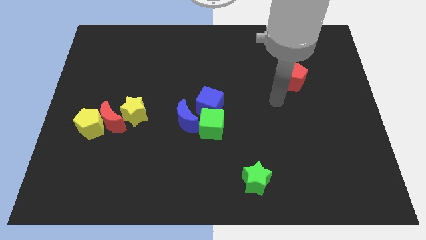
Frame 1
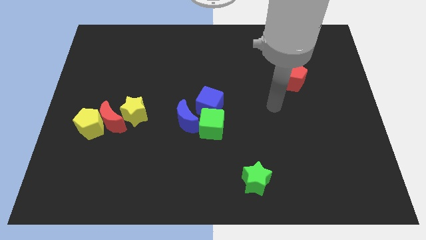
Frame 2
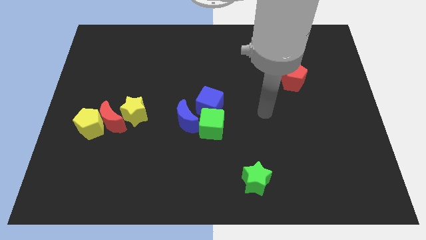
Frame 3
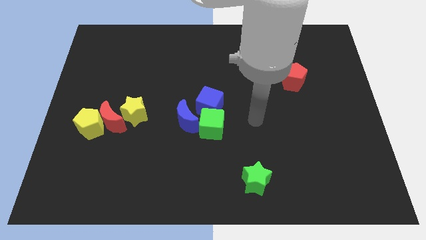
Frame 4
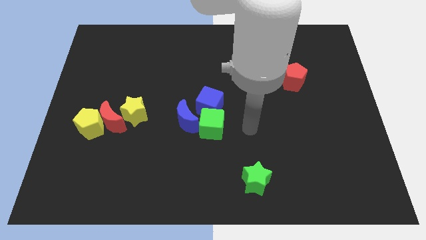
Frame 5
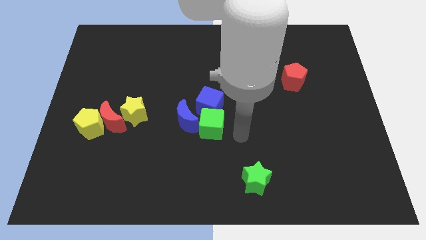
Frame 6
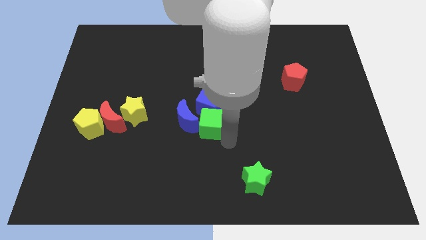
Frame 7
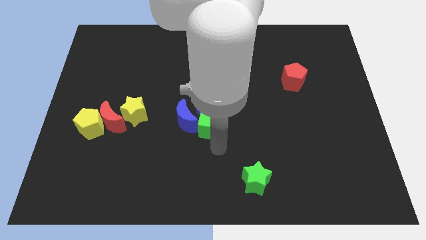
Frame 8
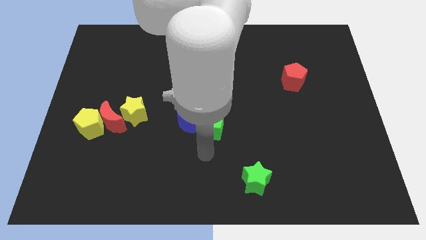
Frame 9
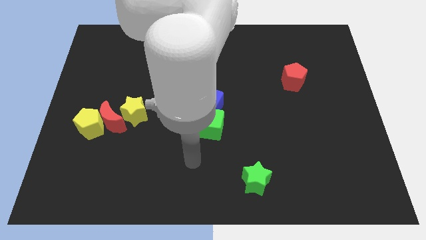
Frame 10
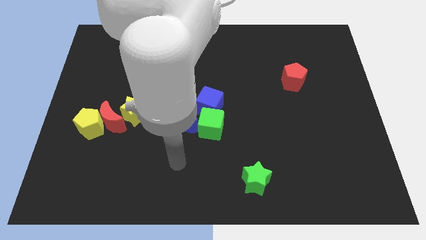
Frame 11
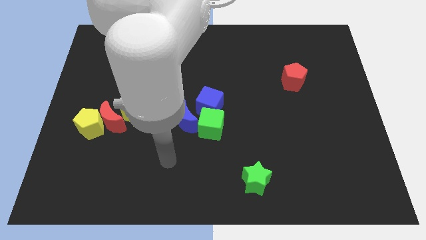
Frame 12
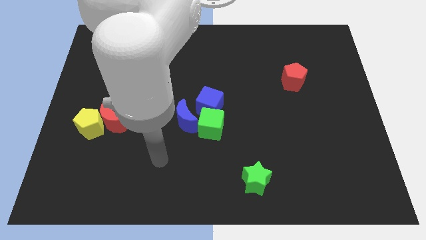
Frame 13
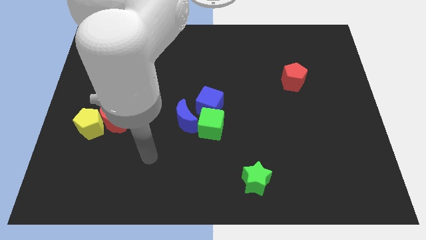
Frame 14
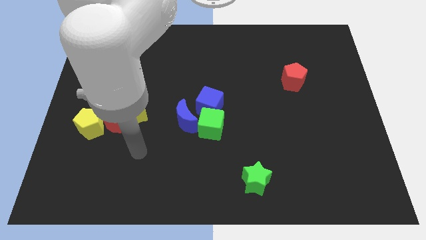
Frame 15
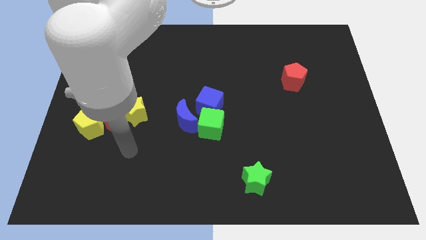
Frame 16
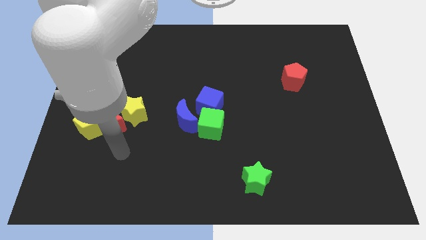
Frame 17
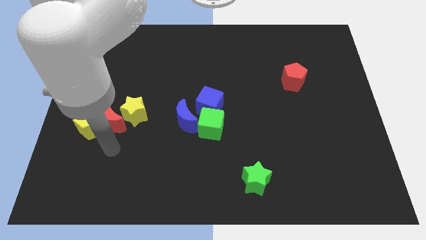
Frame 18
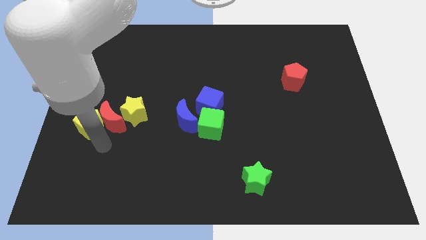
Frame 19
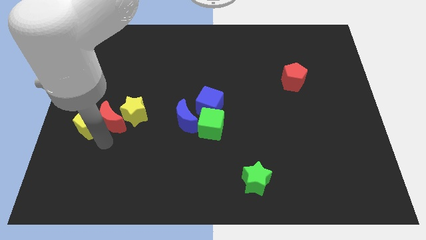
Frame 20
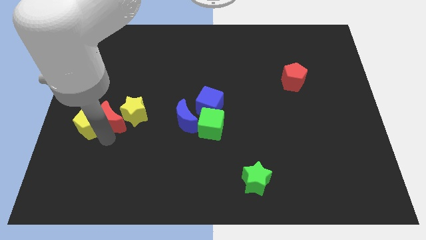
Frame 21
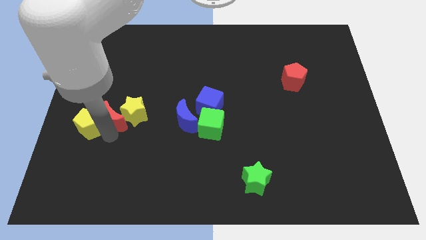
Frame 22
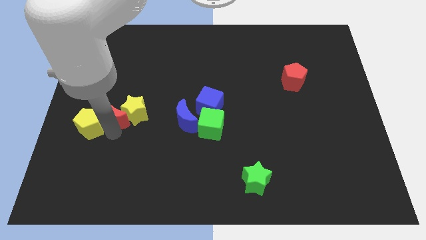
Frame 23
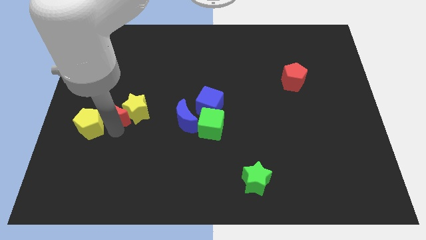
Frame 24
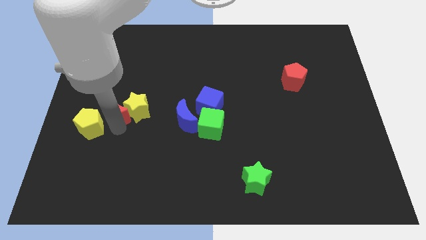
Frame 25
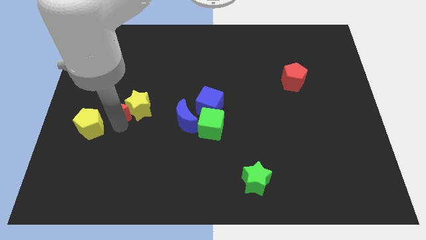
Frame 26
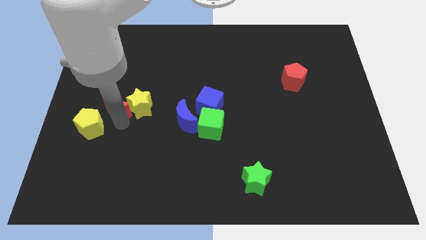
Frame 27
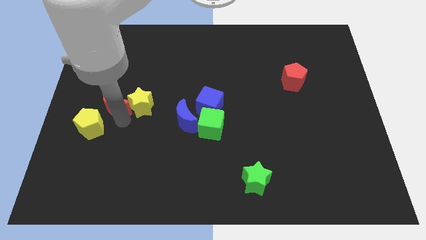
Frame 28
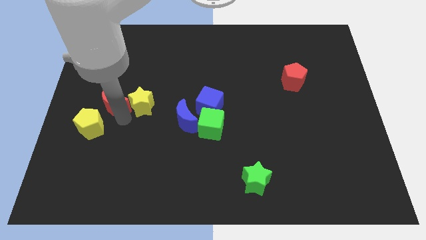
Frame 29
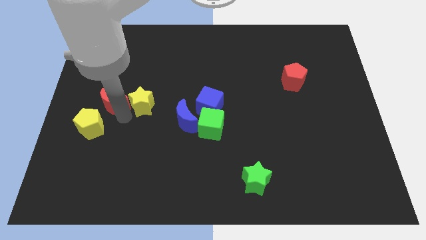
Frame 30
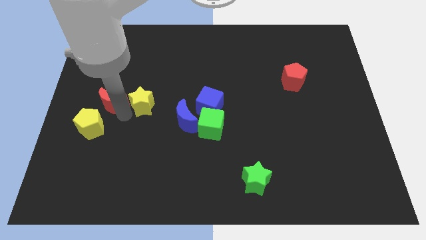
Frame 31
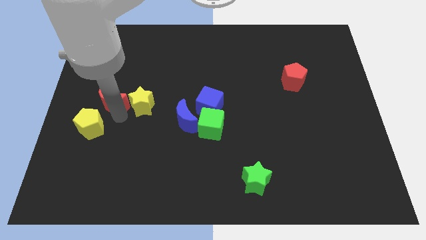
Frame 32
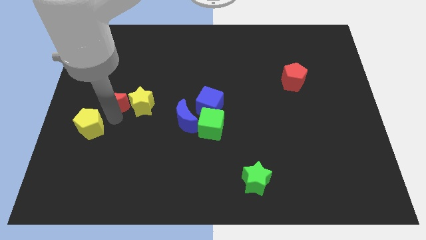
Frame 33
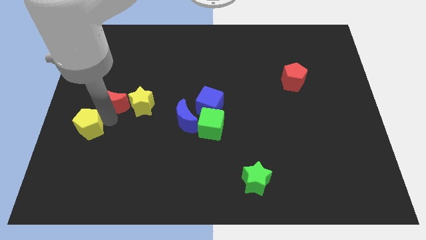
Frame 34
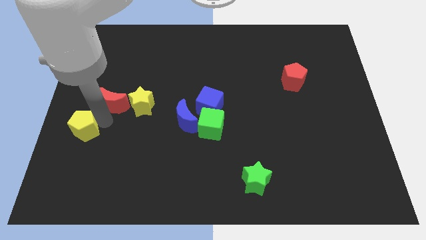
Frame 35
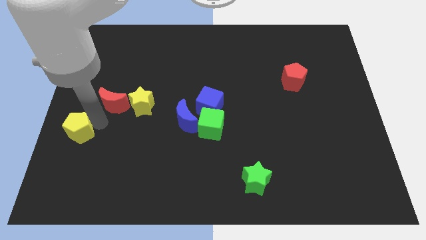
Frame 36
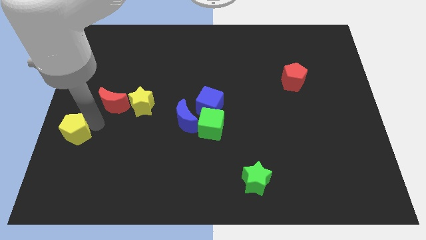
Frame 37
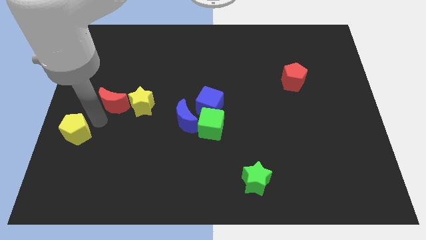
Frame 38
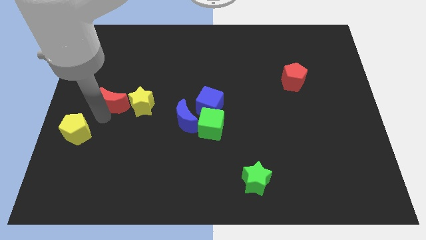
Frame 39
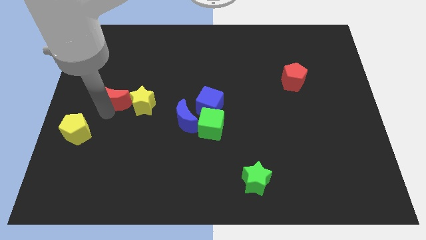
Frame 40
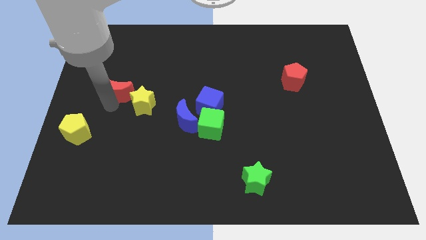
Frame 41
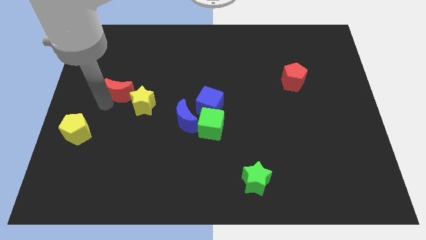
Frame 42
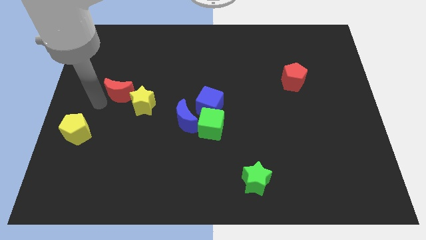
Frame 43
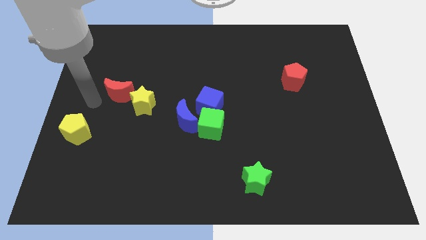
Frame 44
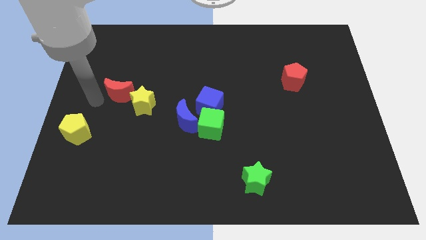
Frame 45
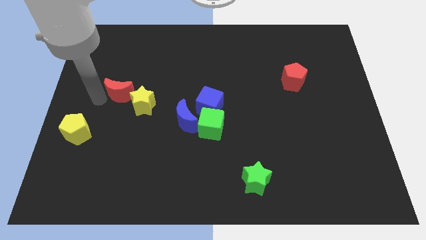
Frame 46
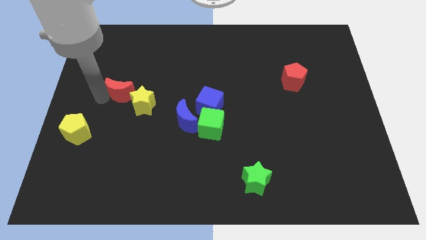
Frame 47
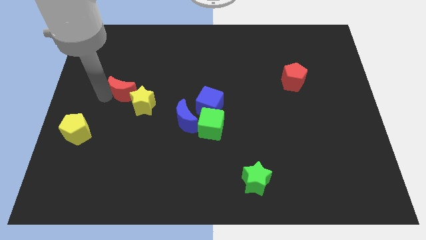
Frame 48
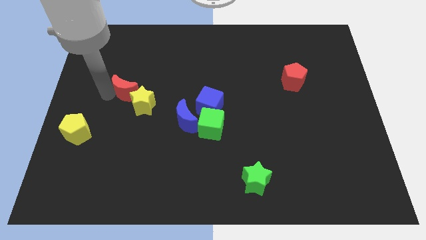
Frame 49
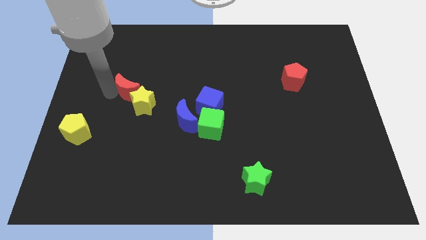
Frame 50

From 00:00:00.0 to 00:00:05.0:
move the red moon diagonally upwards and right a little

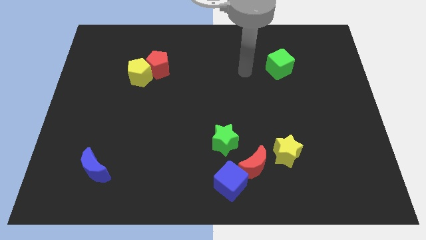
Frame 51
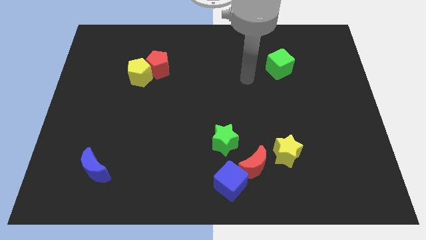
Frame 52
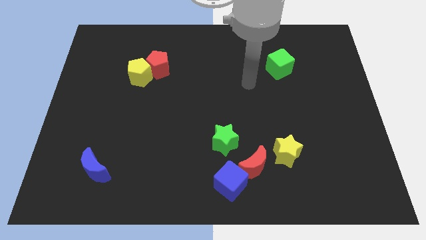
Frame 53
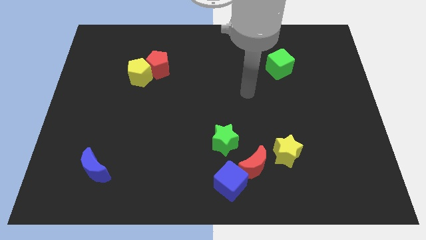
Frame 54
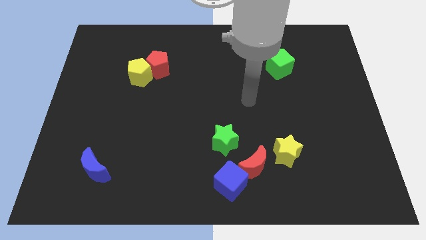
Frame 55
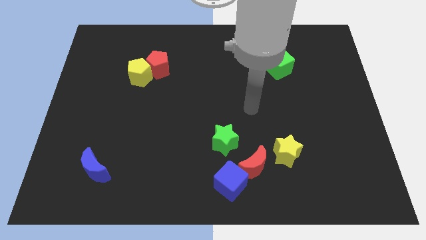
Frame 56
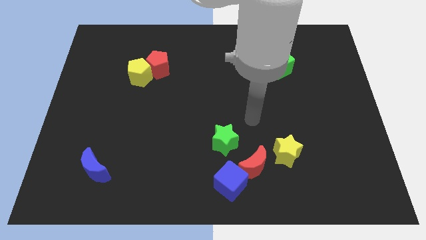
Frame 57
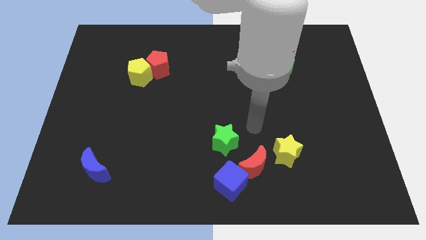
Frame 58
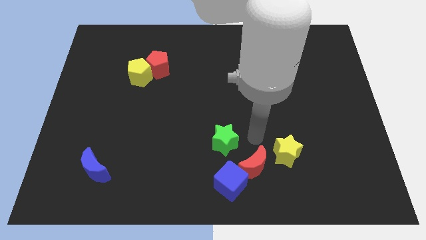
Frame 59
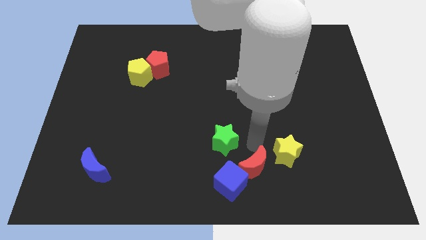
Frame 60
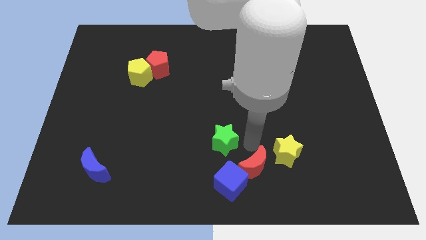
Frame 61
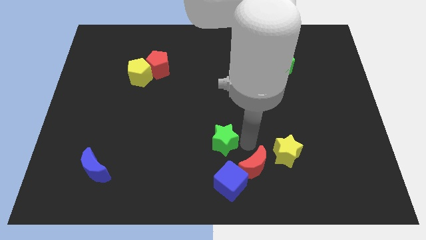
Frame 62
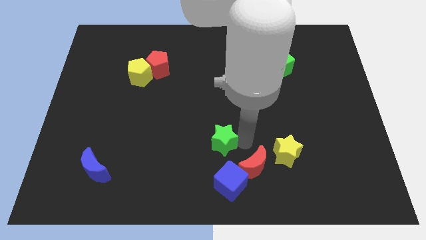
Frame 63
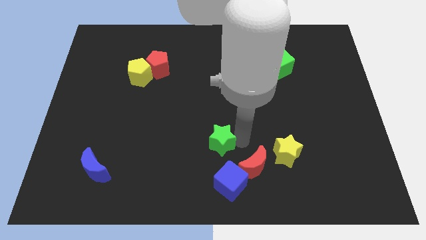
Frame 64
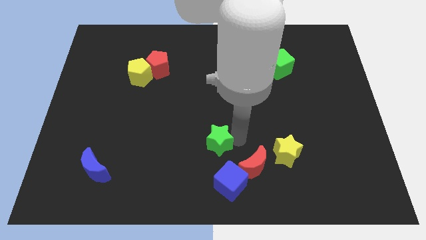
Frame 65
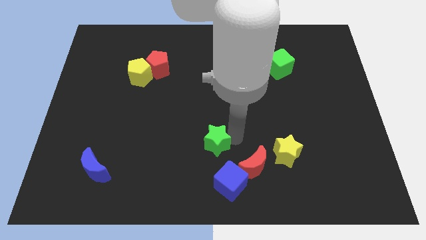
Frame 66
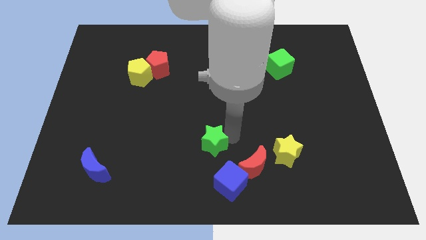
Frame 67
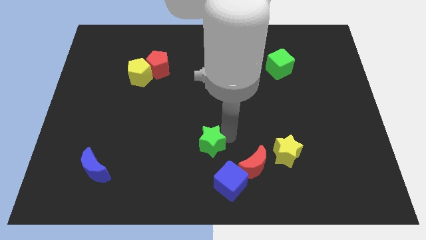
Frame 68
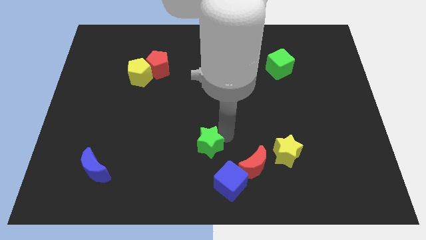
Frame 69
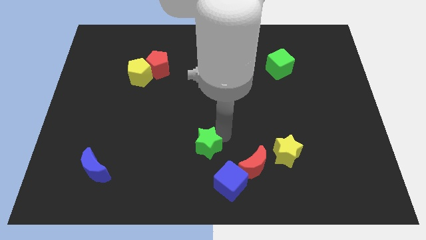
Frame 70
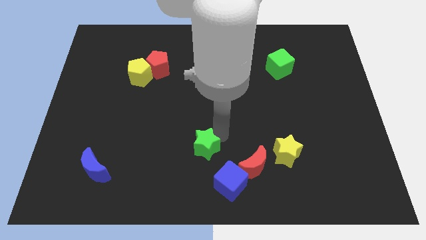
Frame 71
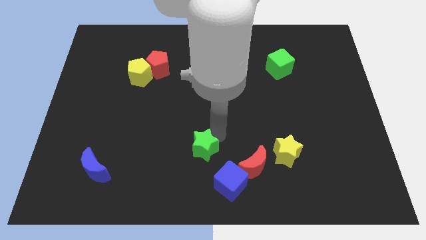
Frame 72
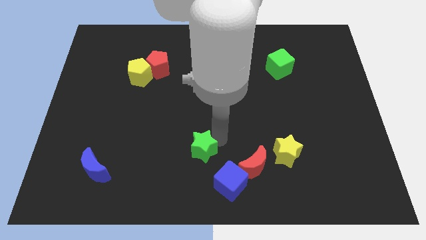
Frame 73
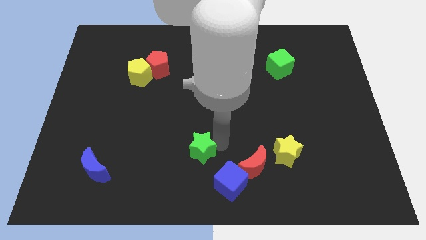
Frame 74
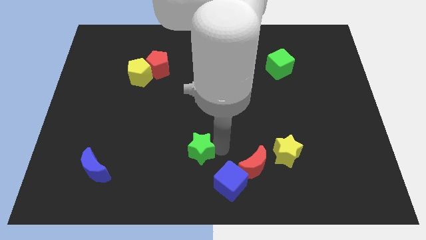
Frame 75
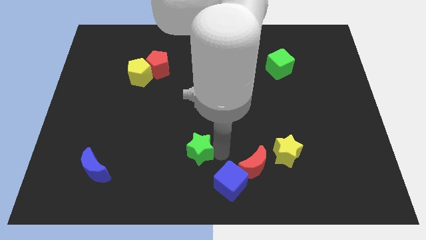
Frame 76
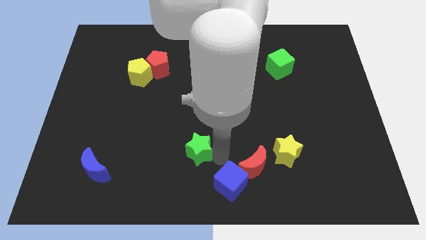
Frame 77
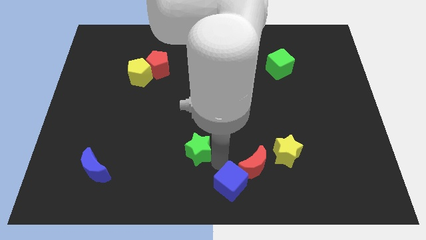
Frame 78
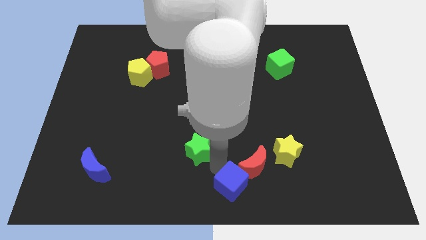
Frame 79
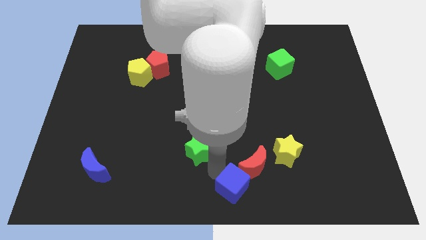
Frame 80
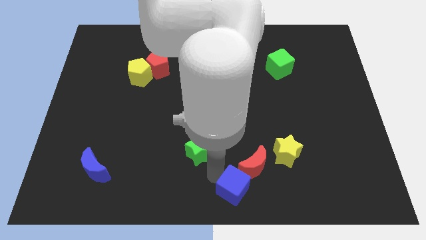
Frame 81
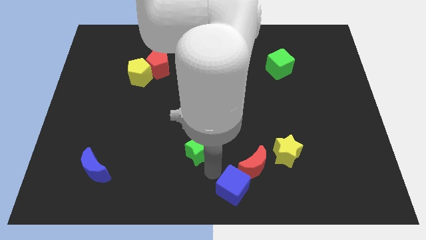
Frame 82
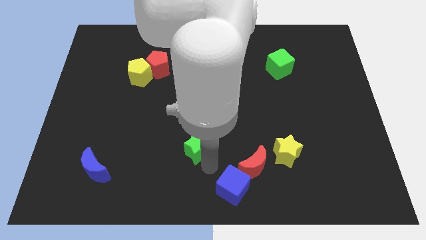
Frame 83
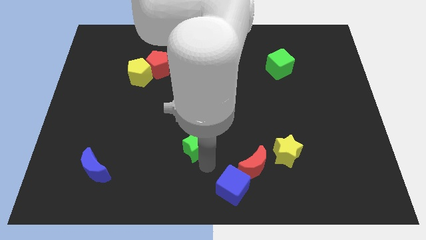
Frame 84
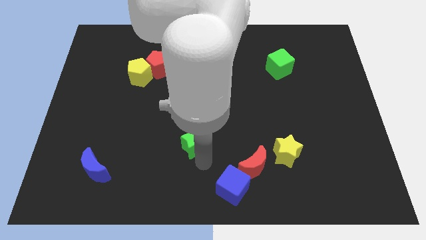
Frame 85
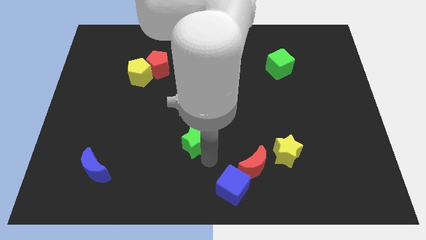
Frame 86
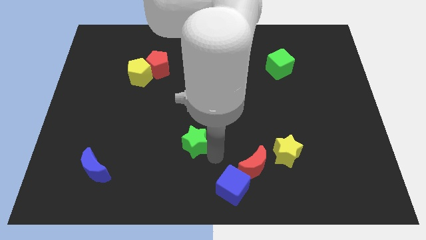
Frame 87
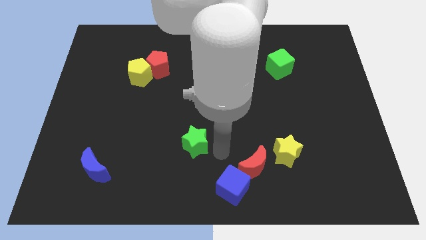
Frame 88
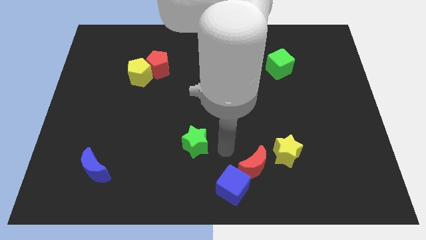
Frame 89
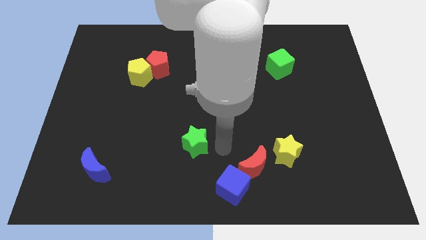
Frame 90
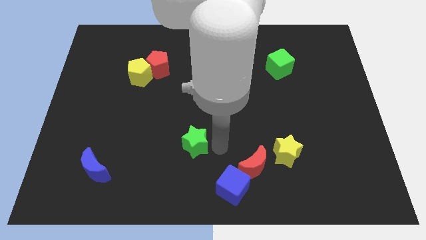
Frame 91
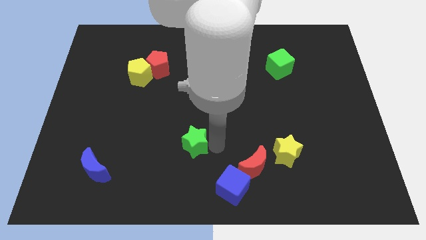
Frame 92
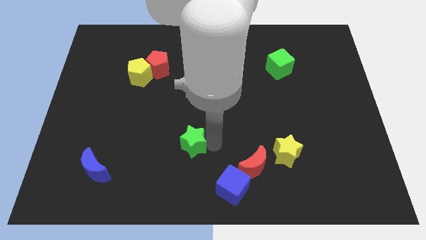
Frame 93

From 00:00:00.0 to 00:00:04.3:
slightly push the green star left
